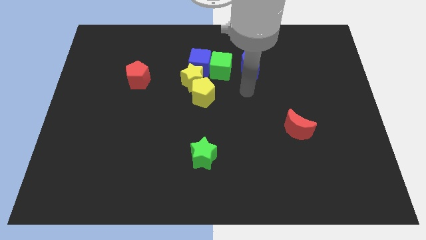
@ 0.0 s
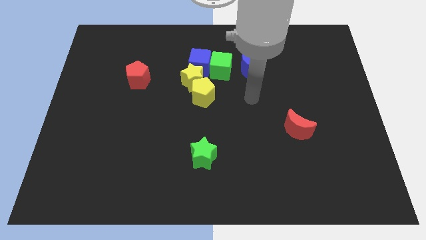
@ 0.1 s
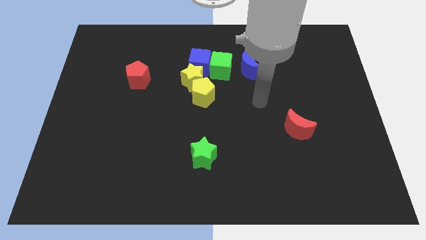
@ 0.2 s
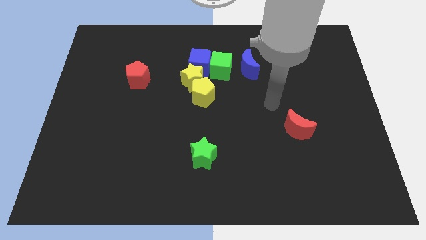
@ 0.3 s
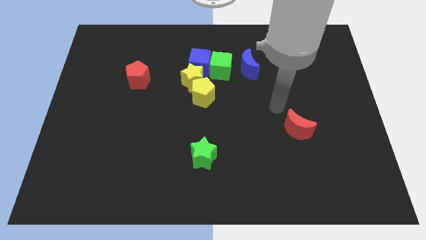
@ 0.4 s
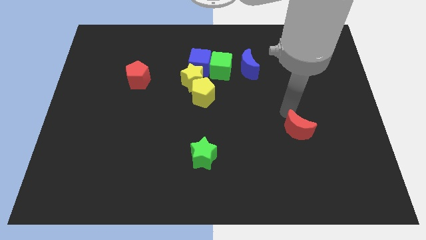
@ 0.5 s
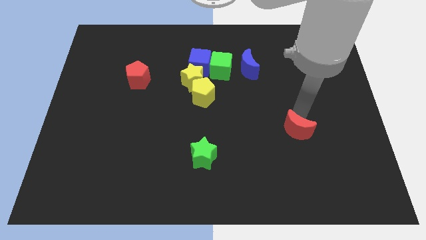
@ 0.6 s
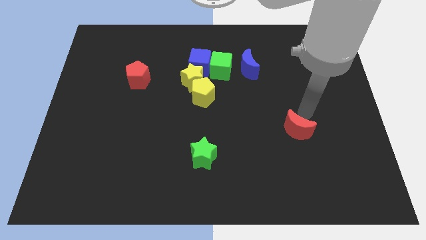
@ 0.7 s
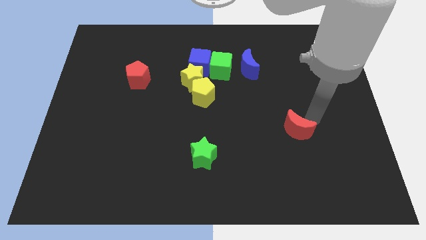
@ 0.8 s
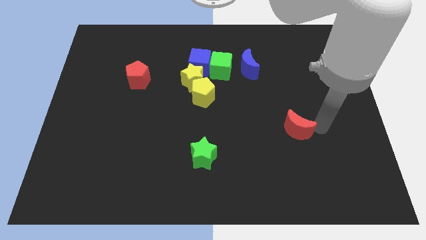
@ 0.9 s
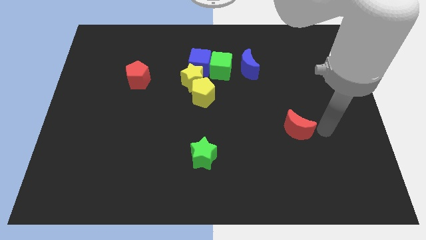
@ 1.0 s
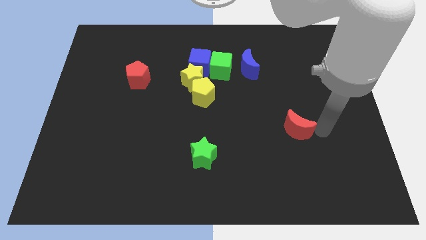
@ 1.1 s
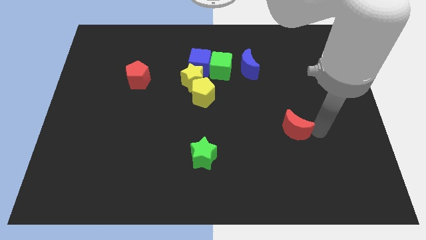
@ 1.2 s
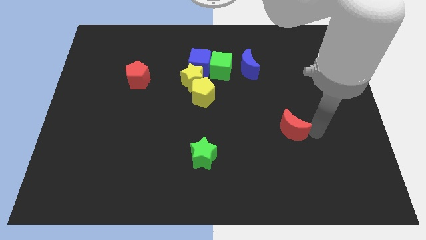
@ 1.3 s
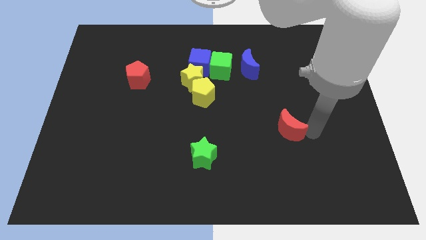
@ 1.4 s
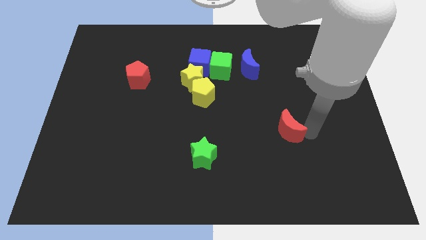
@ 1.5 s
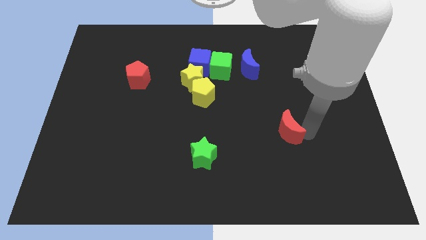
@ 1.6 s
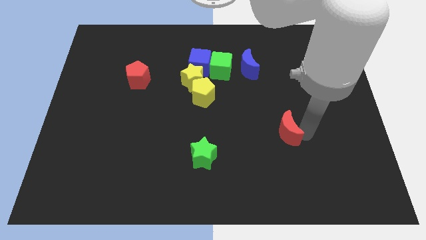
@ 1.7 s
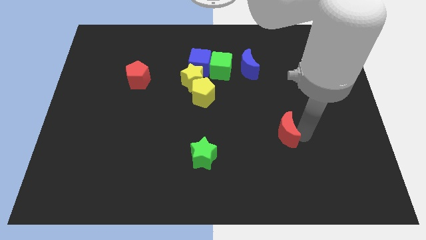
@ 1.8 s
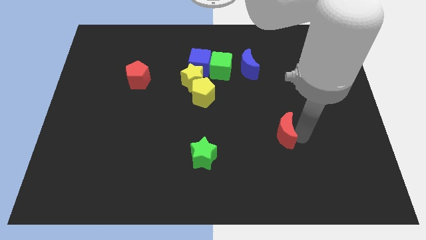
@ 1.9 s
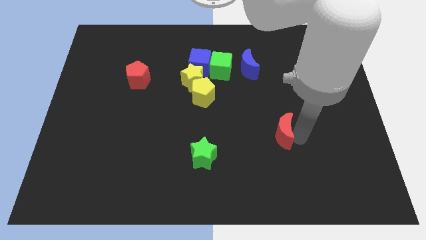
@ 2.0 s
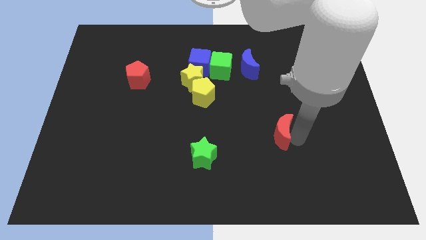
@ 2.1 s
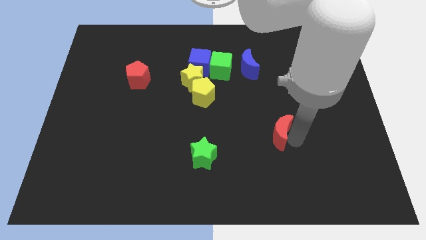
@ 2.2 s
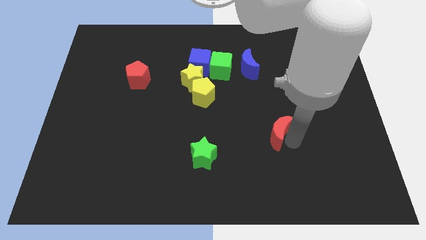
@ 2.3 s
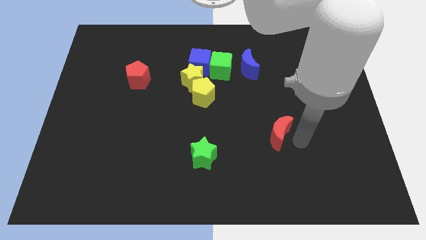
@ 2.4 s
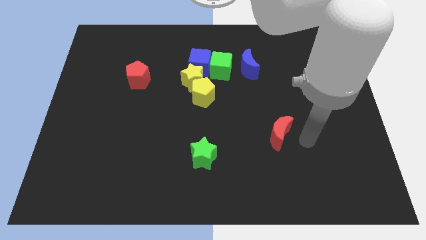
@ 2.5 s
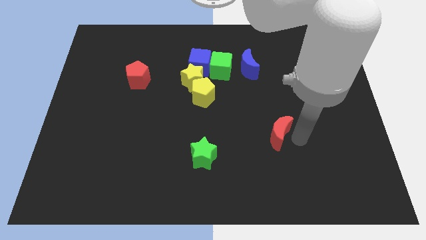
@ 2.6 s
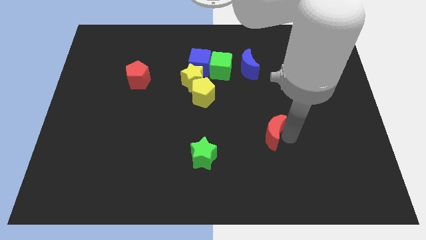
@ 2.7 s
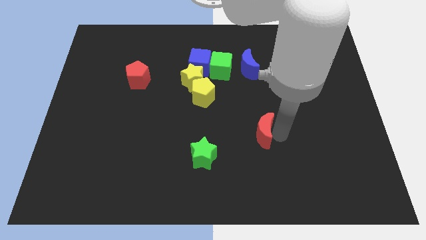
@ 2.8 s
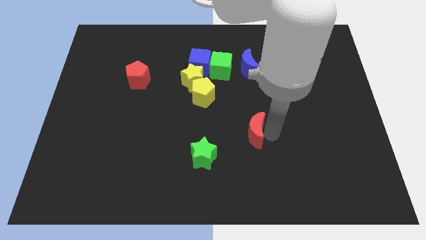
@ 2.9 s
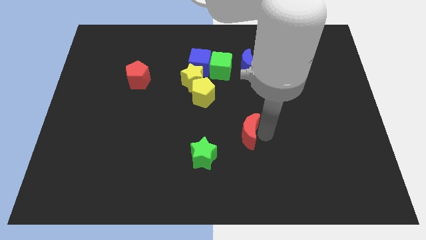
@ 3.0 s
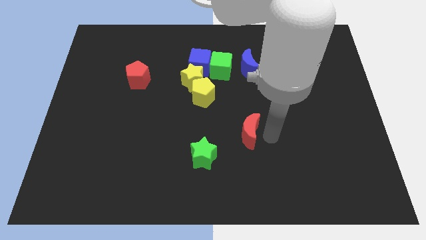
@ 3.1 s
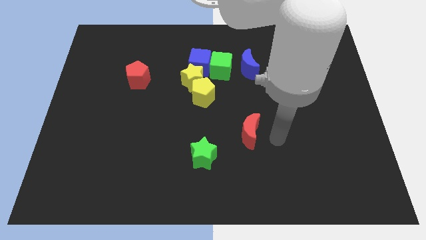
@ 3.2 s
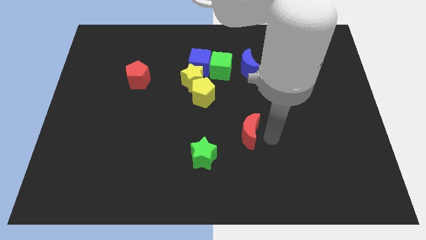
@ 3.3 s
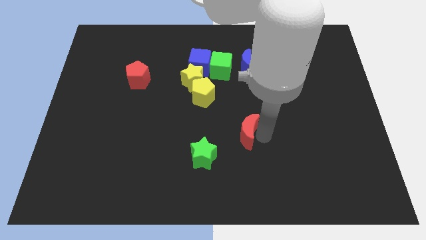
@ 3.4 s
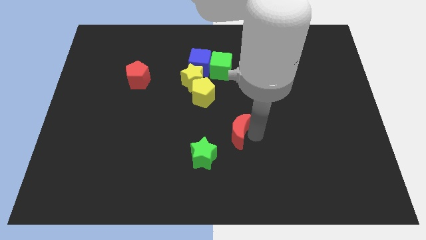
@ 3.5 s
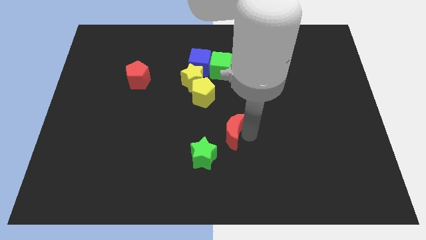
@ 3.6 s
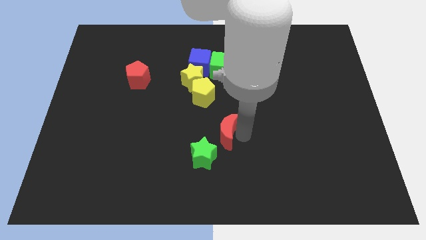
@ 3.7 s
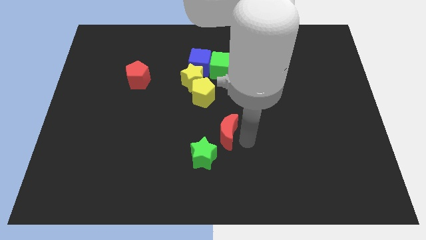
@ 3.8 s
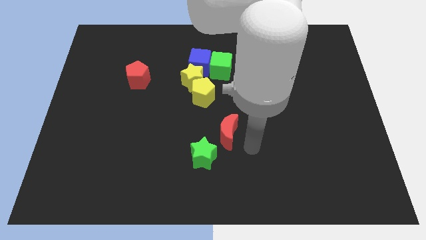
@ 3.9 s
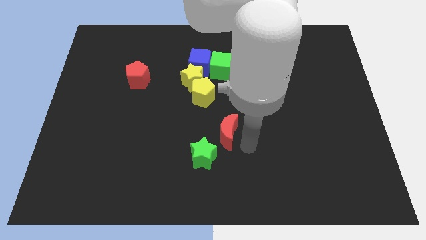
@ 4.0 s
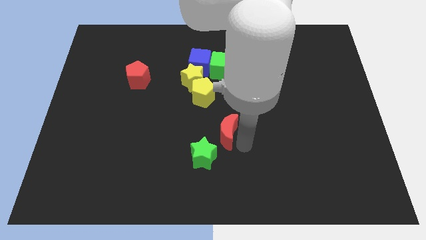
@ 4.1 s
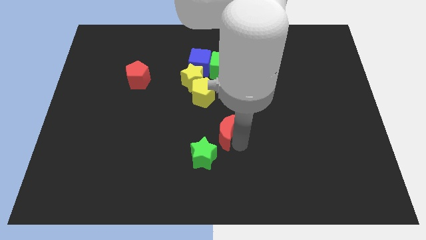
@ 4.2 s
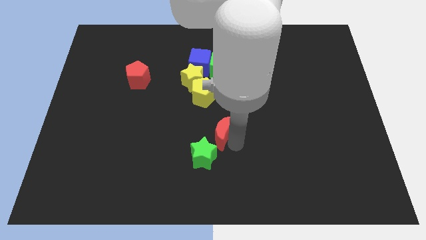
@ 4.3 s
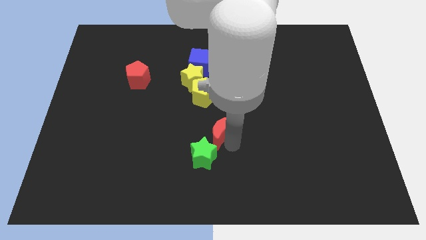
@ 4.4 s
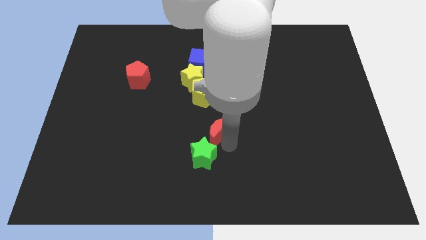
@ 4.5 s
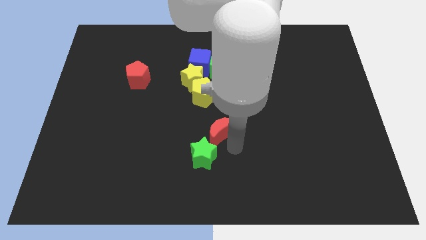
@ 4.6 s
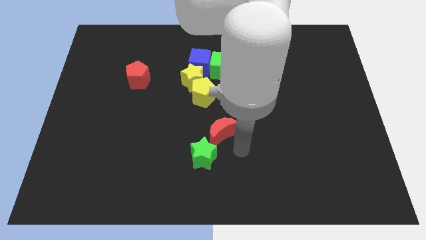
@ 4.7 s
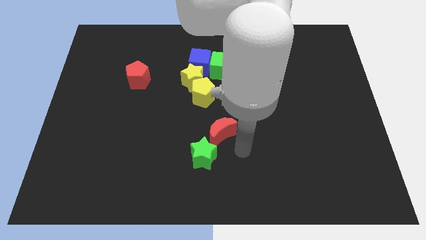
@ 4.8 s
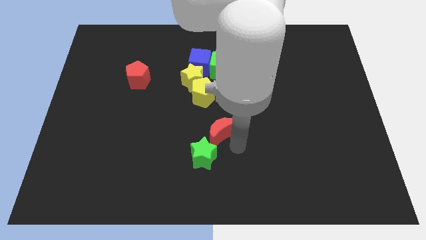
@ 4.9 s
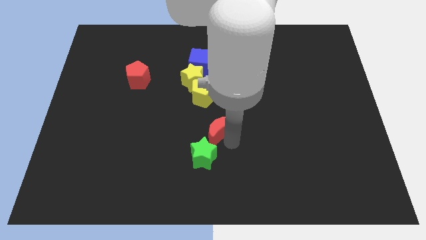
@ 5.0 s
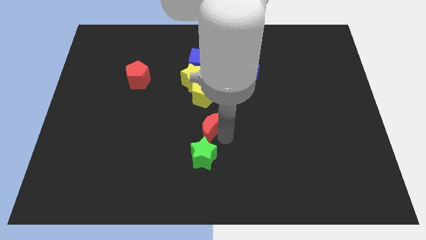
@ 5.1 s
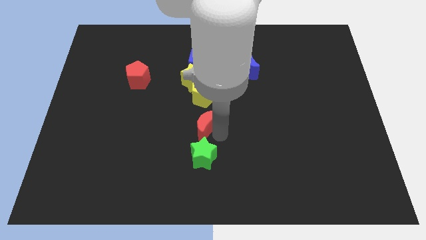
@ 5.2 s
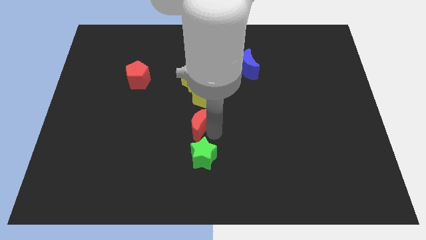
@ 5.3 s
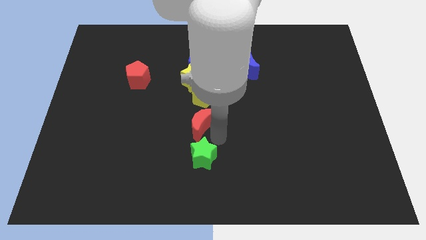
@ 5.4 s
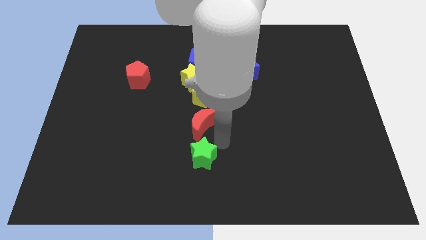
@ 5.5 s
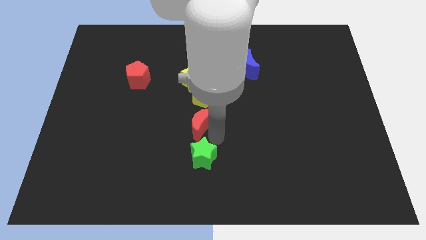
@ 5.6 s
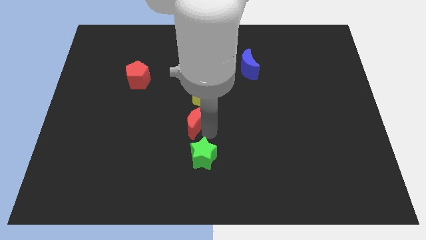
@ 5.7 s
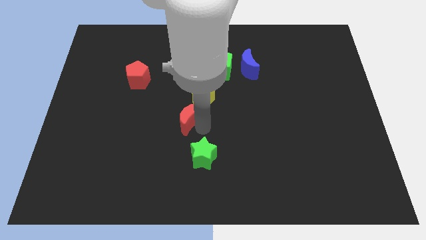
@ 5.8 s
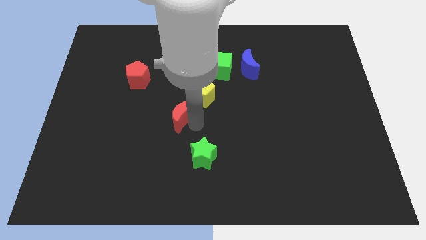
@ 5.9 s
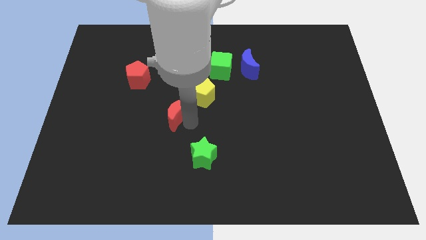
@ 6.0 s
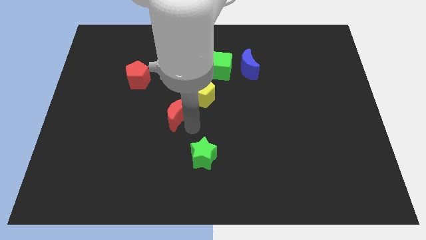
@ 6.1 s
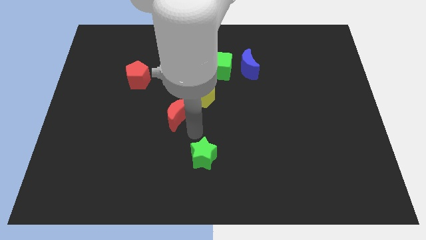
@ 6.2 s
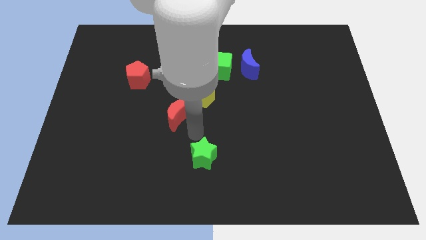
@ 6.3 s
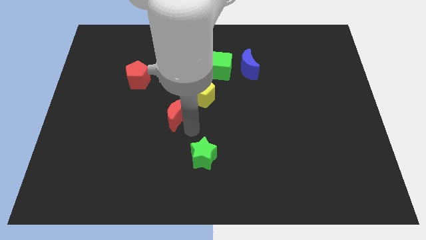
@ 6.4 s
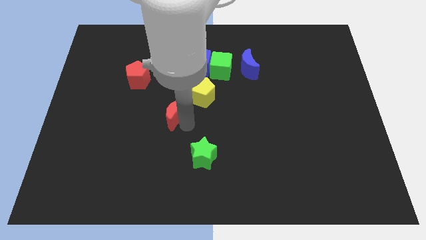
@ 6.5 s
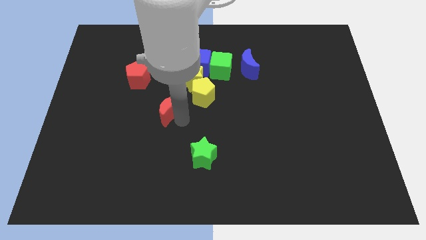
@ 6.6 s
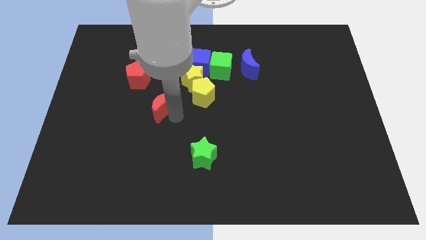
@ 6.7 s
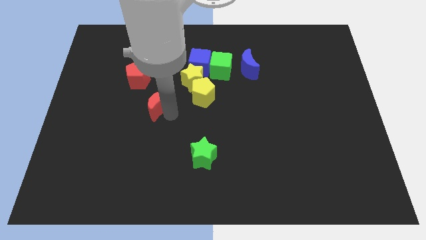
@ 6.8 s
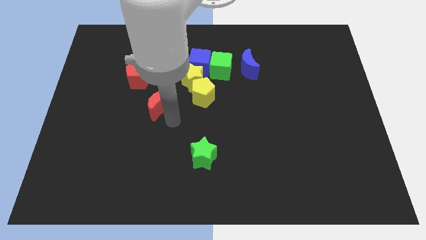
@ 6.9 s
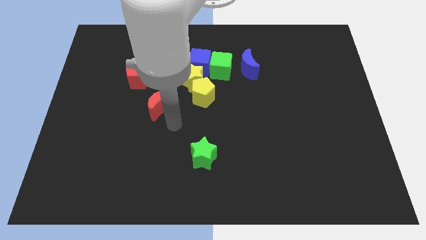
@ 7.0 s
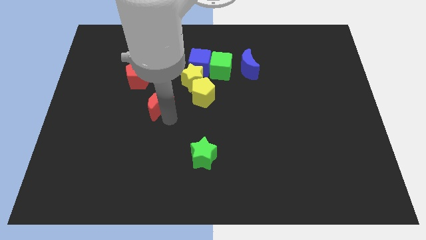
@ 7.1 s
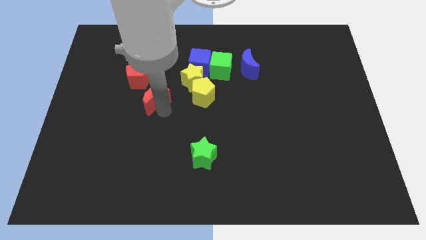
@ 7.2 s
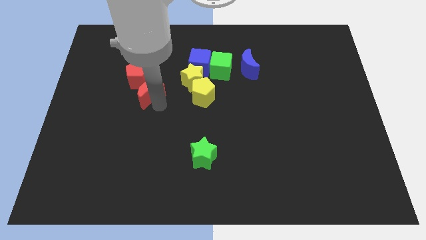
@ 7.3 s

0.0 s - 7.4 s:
put the red moon close to the red pentagon

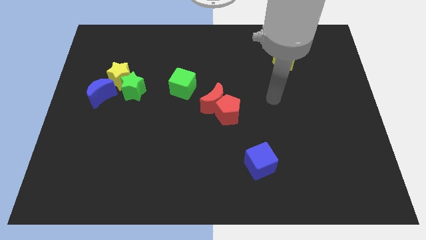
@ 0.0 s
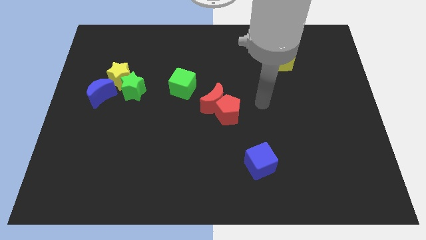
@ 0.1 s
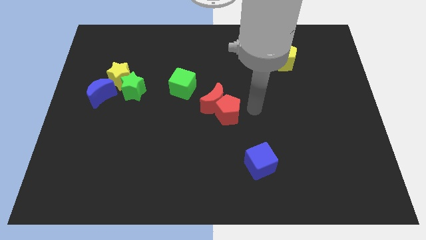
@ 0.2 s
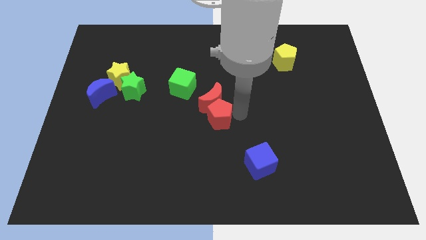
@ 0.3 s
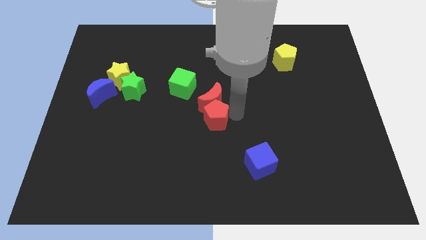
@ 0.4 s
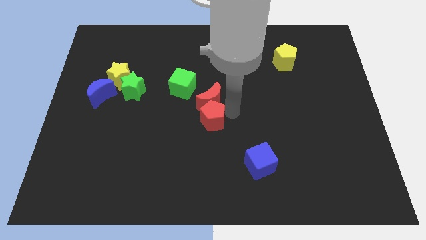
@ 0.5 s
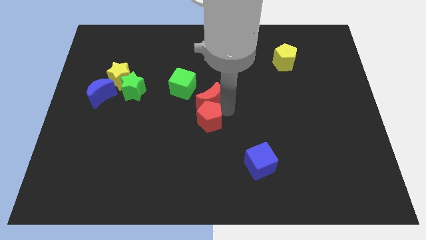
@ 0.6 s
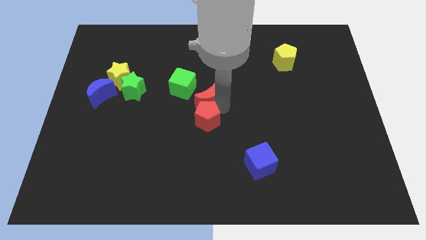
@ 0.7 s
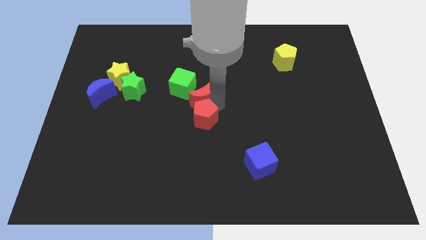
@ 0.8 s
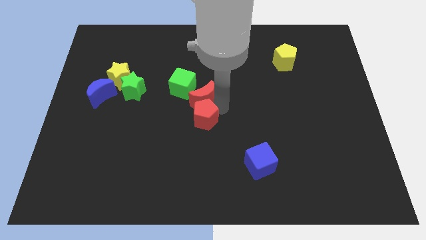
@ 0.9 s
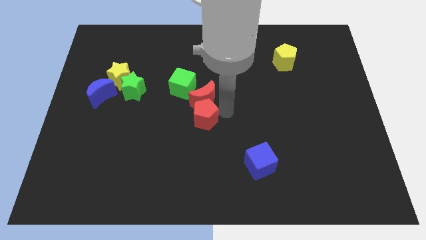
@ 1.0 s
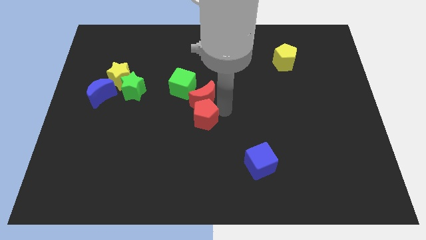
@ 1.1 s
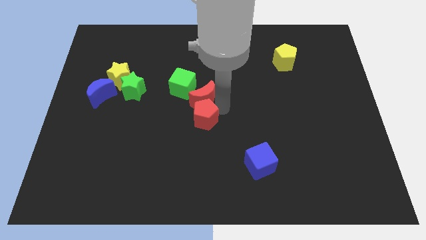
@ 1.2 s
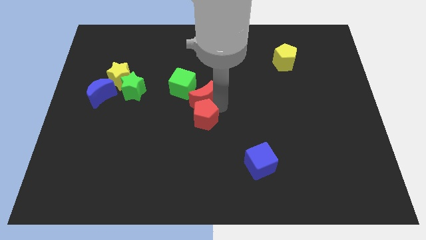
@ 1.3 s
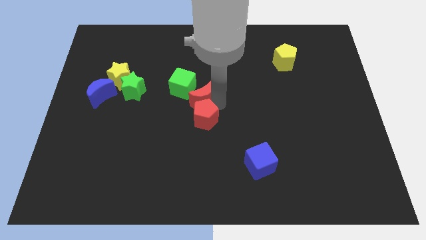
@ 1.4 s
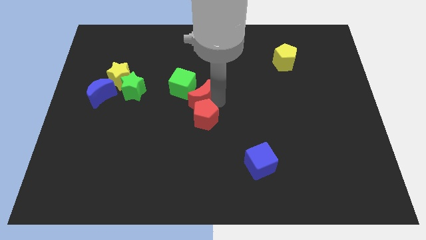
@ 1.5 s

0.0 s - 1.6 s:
push the red moon to the green cube
